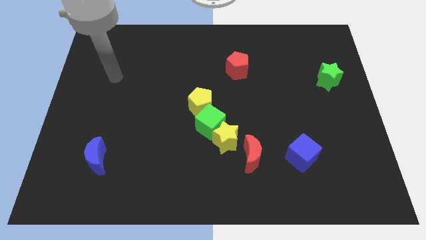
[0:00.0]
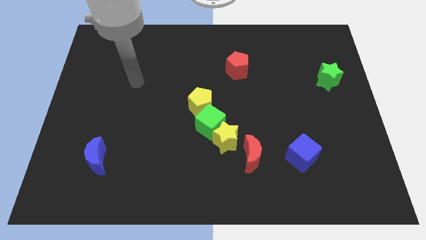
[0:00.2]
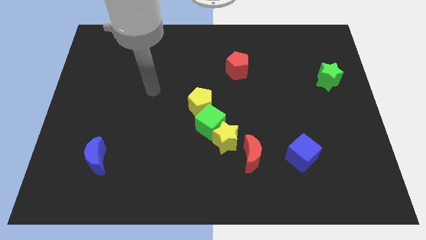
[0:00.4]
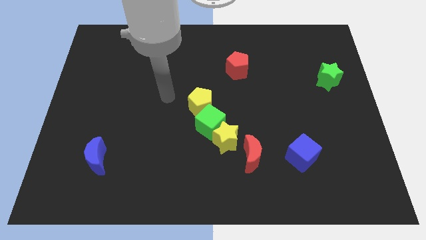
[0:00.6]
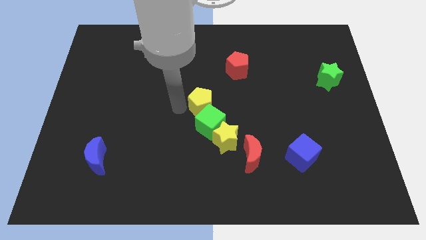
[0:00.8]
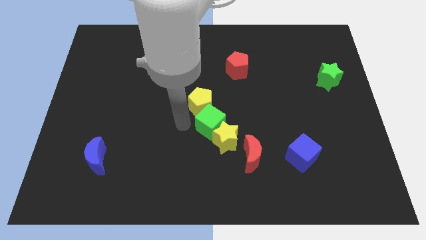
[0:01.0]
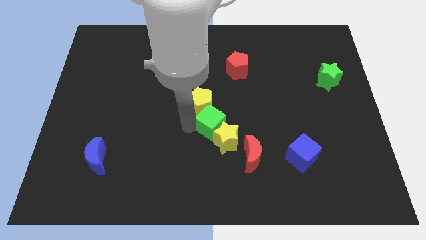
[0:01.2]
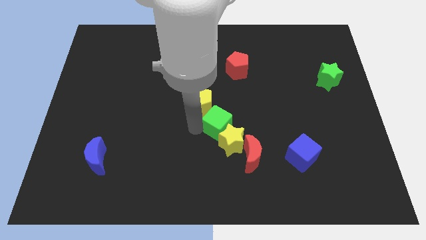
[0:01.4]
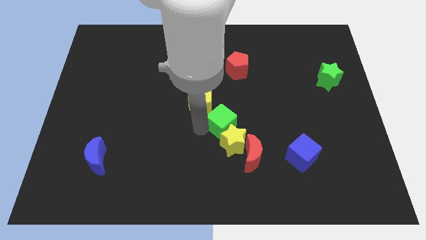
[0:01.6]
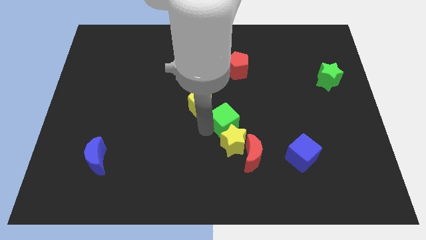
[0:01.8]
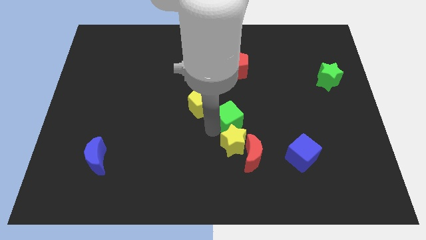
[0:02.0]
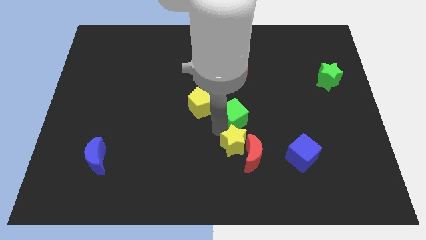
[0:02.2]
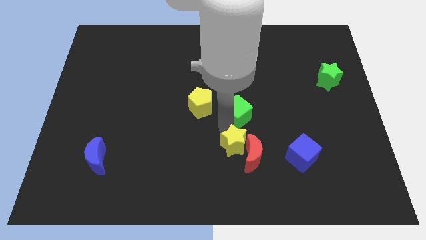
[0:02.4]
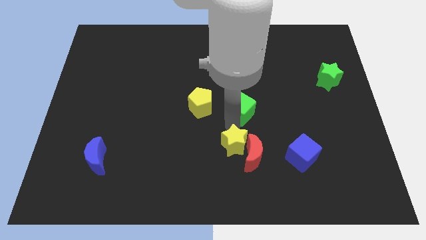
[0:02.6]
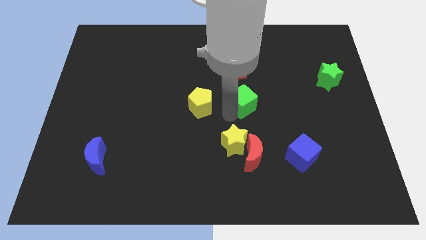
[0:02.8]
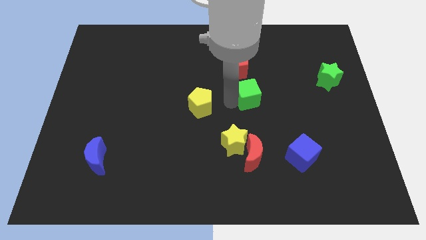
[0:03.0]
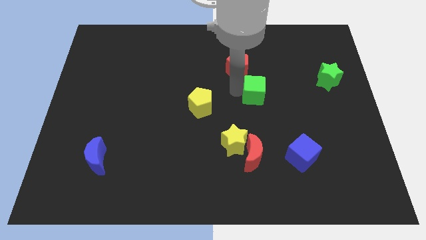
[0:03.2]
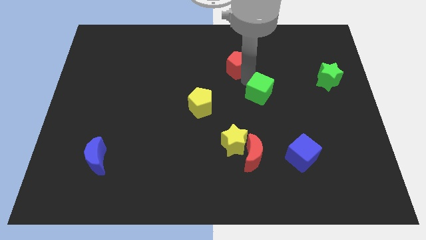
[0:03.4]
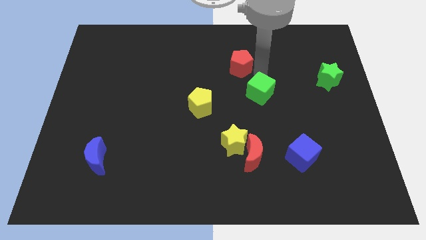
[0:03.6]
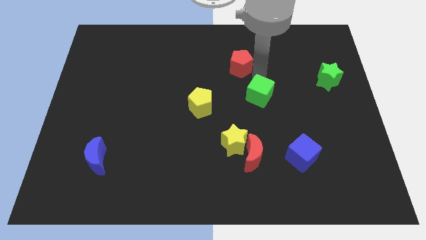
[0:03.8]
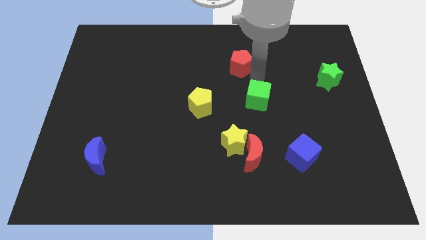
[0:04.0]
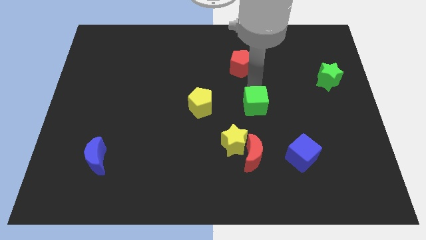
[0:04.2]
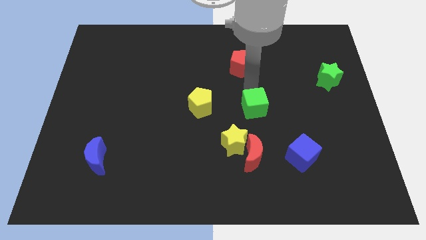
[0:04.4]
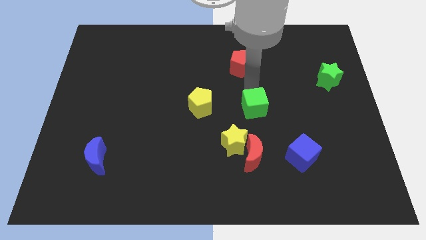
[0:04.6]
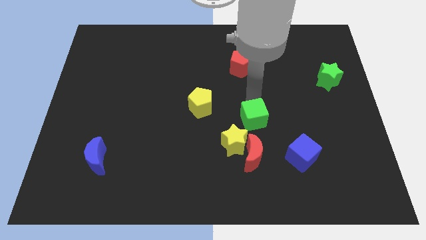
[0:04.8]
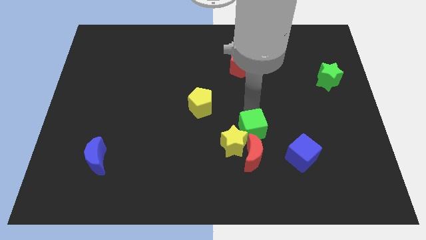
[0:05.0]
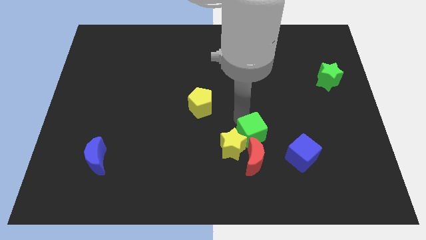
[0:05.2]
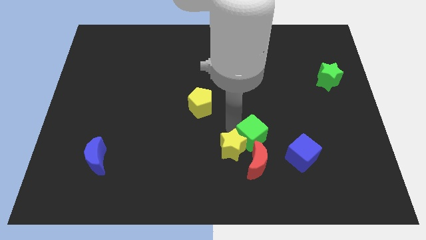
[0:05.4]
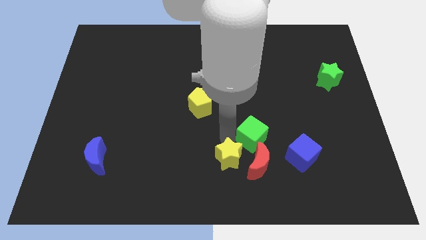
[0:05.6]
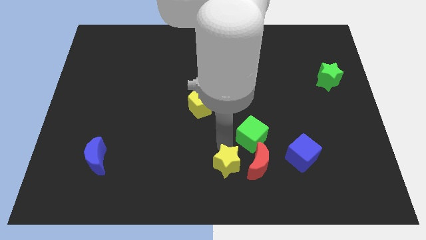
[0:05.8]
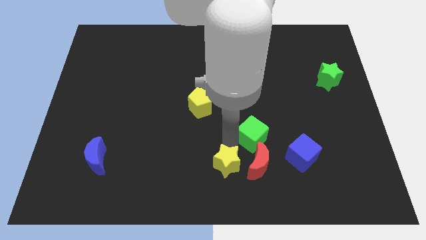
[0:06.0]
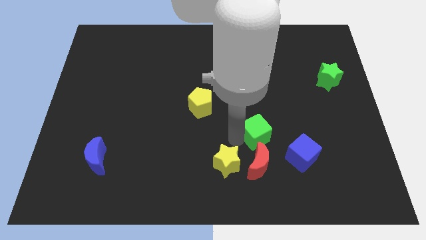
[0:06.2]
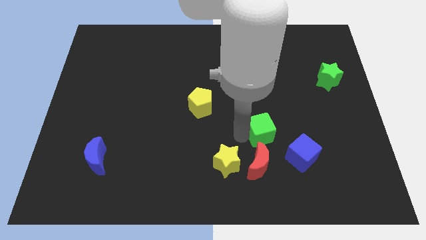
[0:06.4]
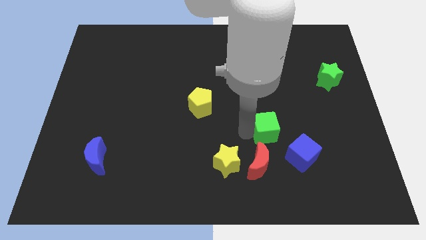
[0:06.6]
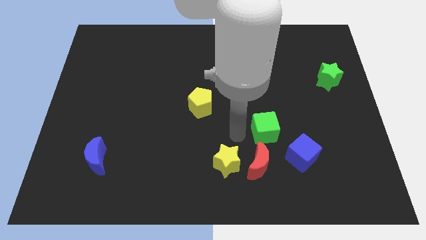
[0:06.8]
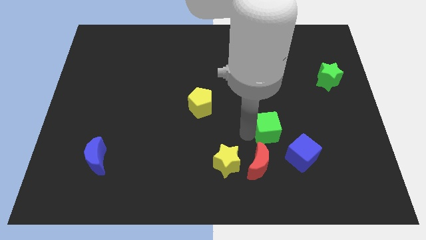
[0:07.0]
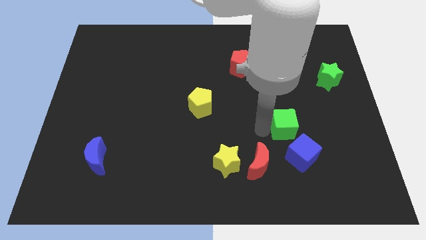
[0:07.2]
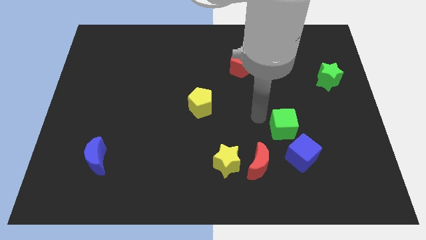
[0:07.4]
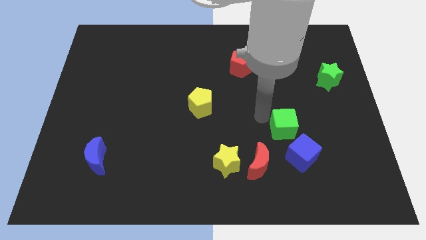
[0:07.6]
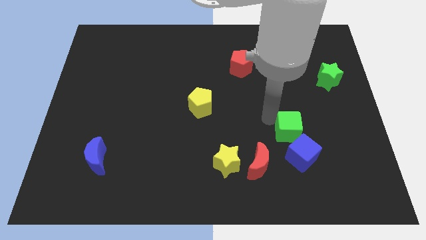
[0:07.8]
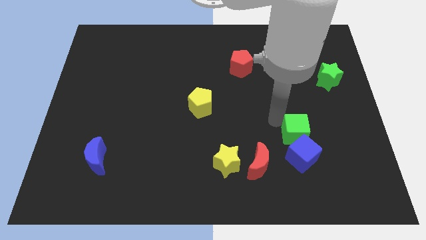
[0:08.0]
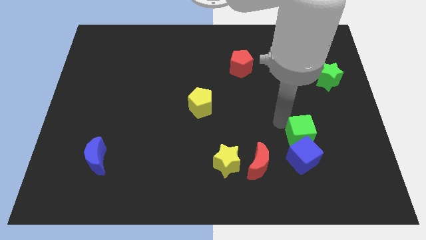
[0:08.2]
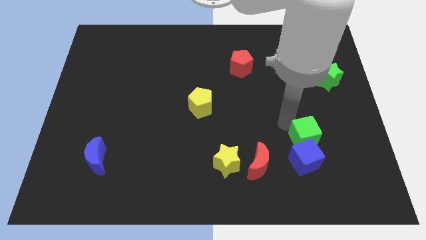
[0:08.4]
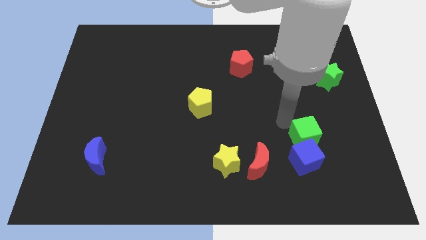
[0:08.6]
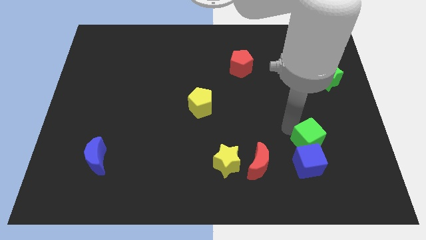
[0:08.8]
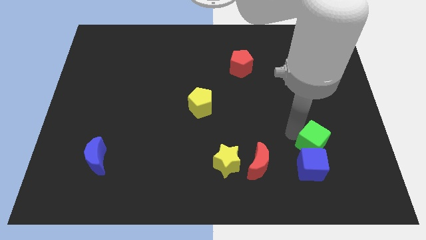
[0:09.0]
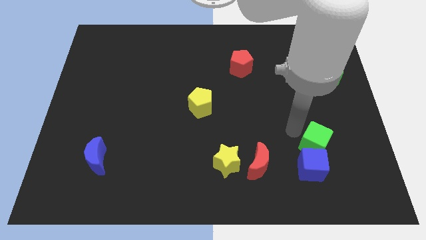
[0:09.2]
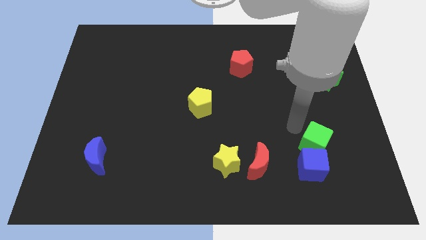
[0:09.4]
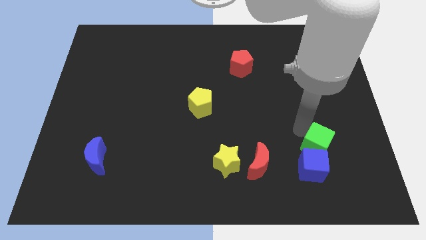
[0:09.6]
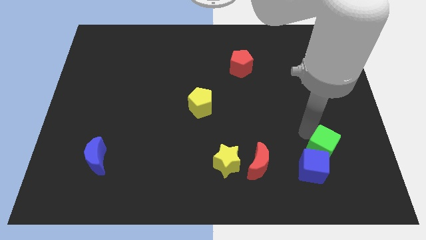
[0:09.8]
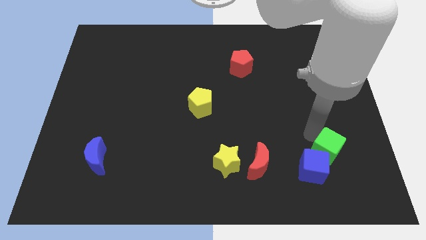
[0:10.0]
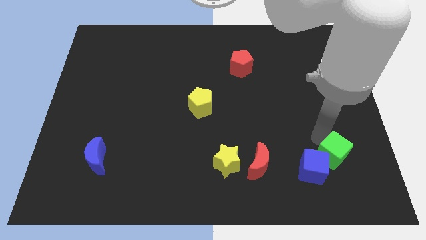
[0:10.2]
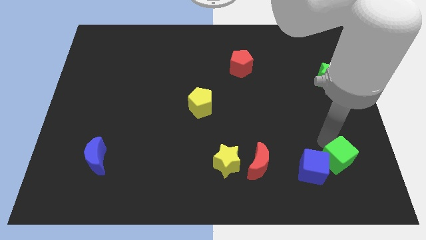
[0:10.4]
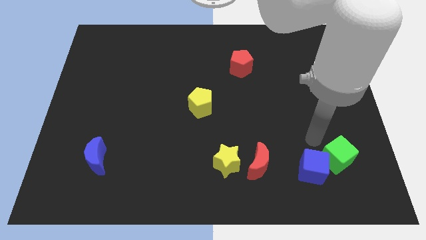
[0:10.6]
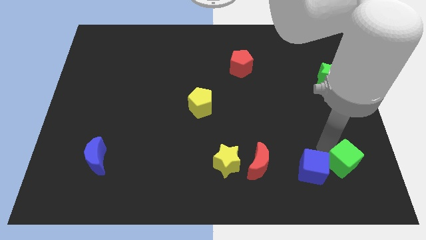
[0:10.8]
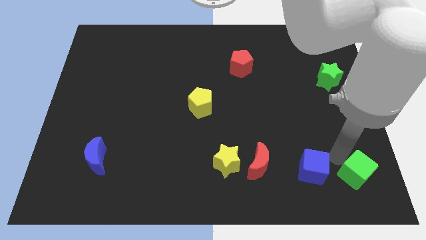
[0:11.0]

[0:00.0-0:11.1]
move the green cube to the bottom right corner

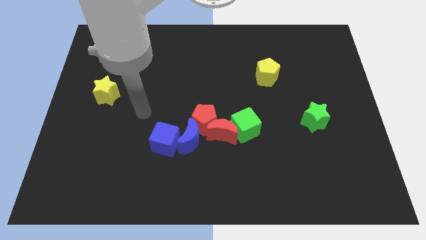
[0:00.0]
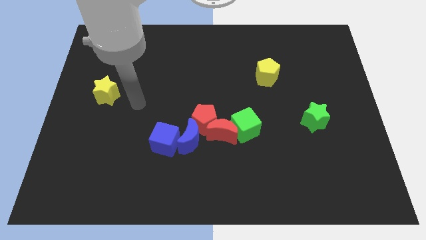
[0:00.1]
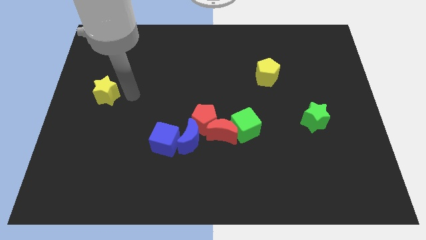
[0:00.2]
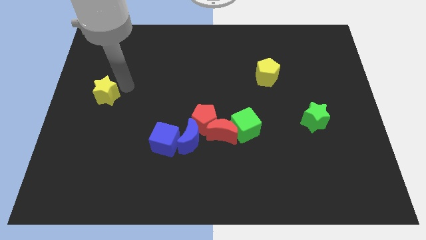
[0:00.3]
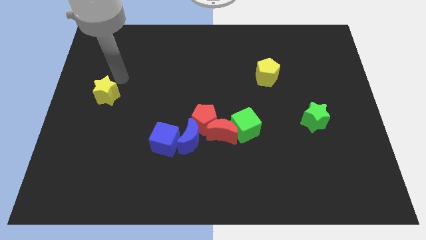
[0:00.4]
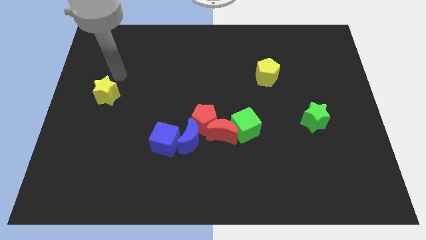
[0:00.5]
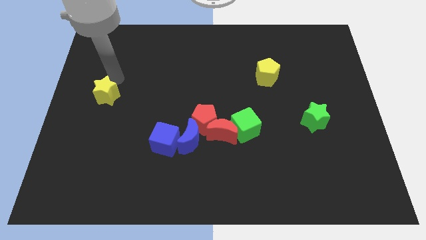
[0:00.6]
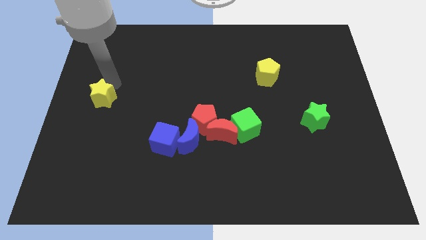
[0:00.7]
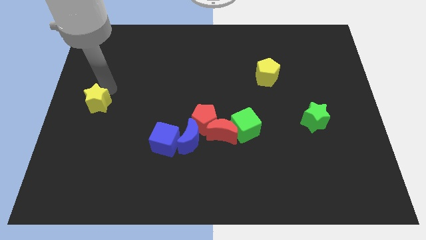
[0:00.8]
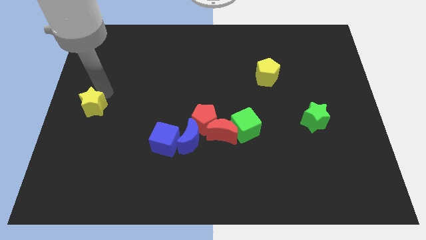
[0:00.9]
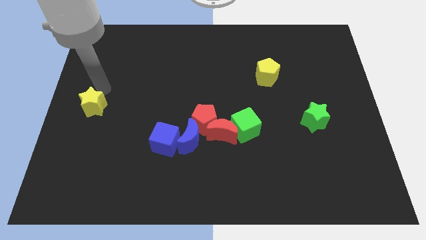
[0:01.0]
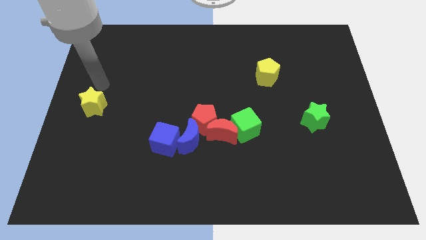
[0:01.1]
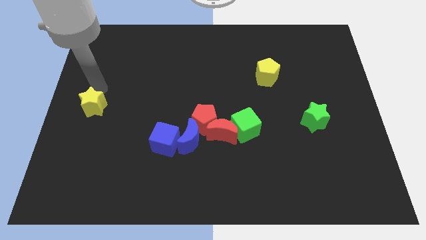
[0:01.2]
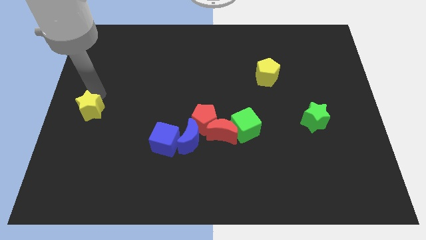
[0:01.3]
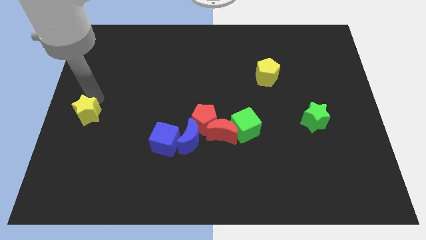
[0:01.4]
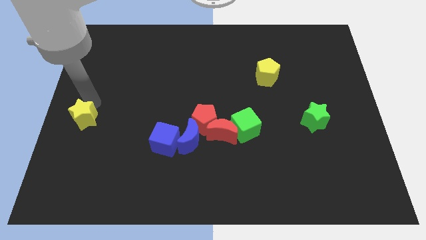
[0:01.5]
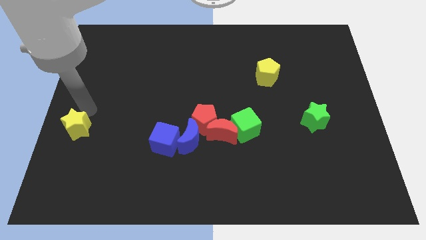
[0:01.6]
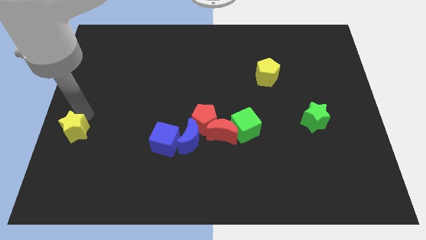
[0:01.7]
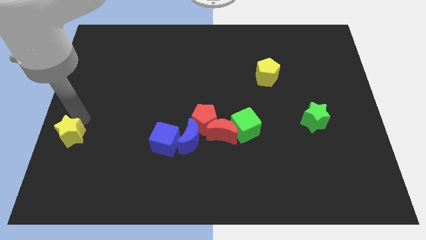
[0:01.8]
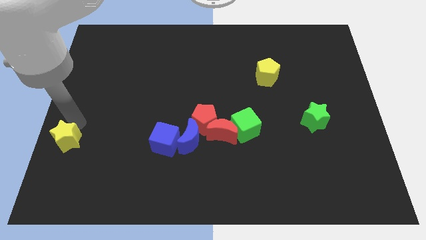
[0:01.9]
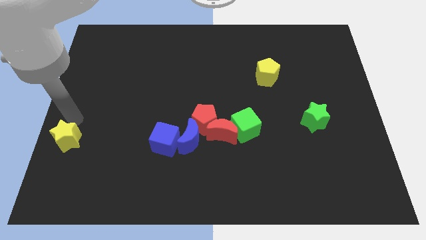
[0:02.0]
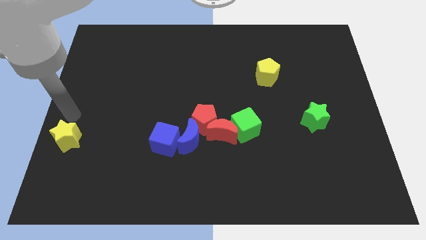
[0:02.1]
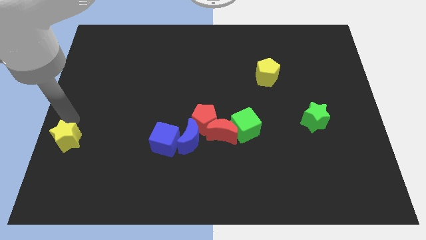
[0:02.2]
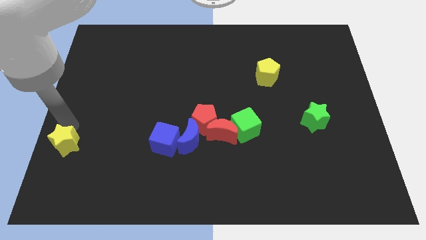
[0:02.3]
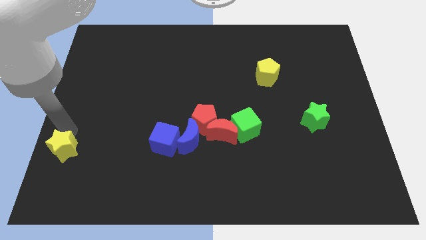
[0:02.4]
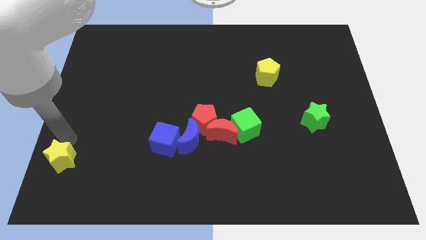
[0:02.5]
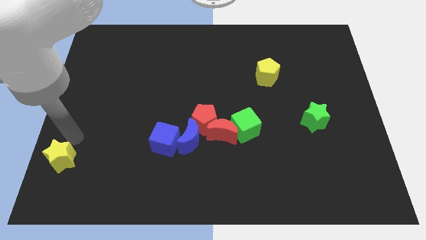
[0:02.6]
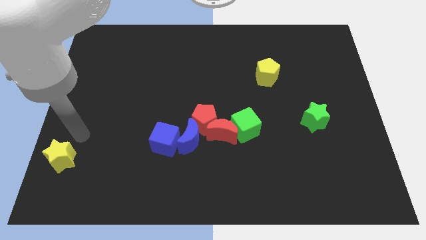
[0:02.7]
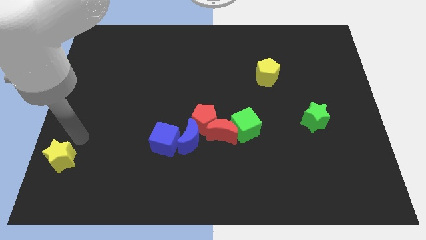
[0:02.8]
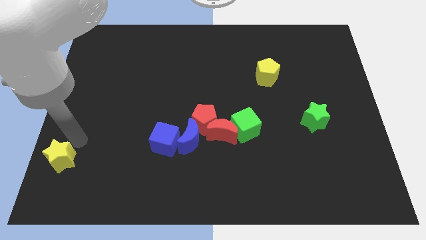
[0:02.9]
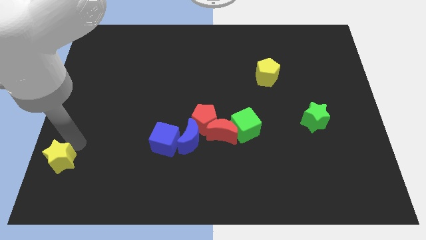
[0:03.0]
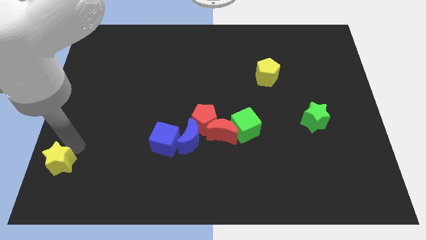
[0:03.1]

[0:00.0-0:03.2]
put the yellow star to the bottom left
